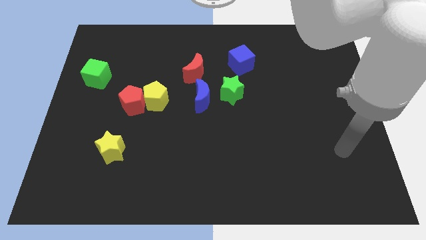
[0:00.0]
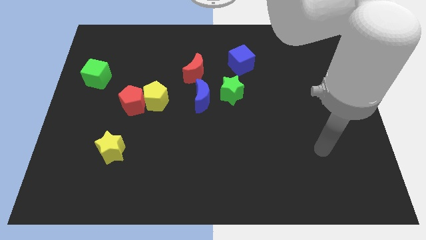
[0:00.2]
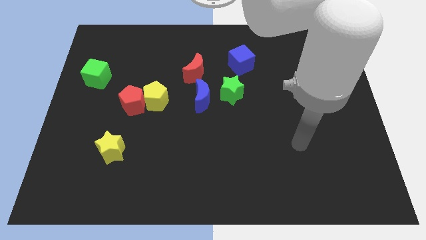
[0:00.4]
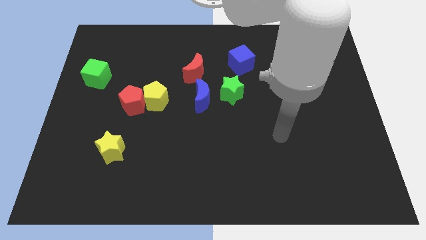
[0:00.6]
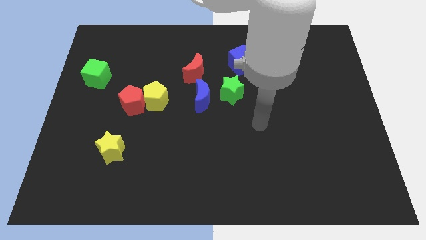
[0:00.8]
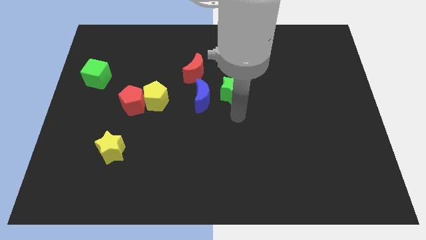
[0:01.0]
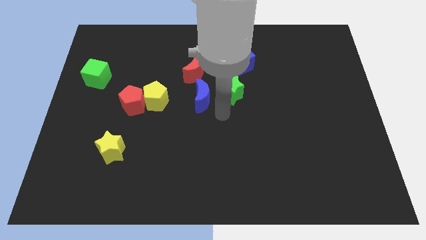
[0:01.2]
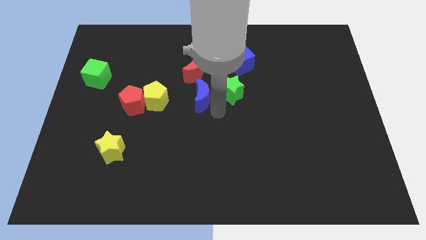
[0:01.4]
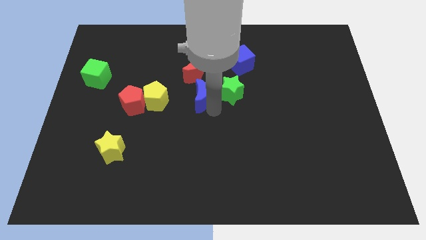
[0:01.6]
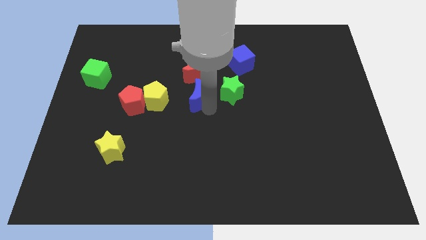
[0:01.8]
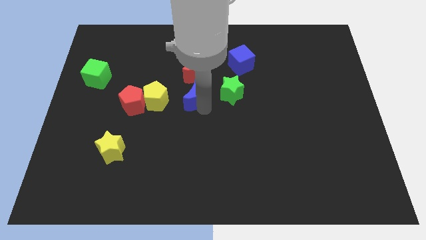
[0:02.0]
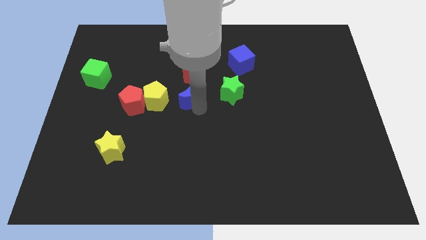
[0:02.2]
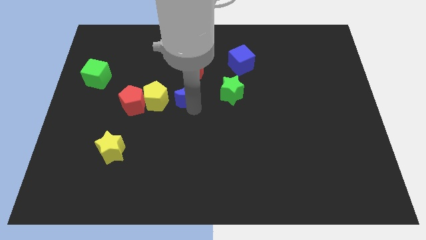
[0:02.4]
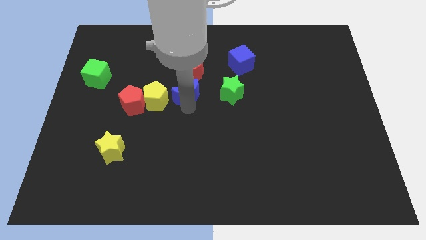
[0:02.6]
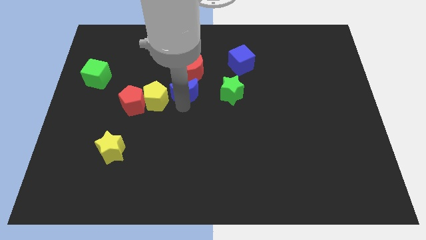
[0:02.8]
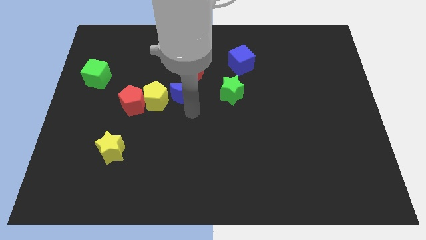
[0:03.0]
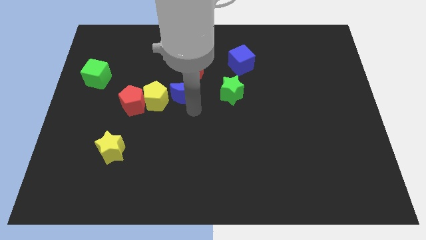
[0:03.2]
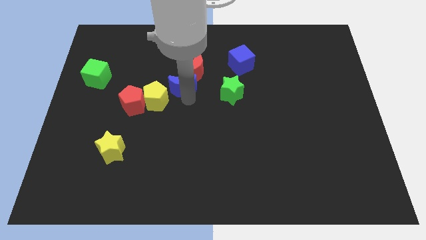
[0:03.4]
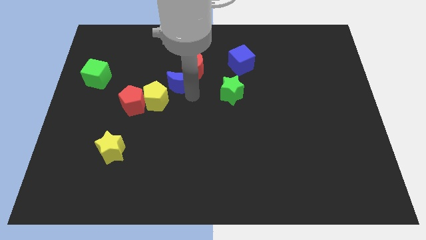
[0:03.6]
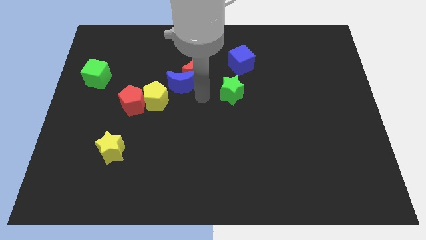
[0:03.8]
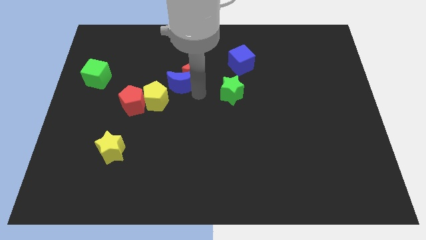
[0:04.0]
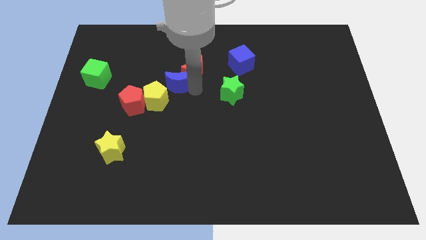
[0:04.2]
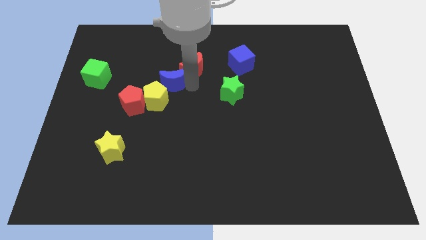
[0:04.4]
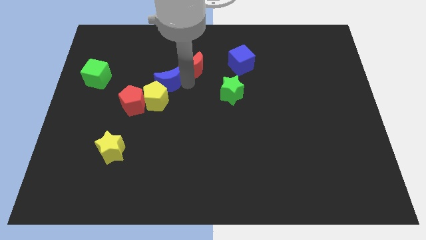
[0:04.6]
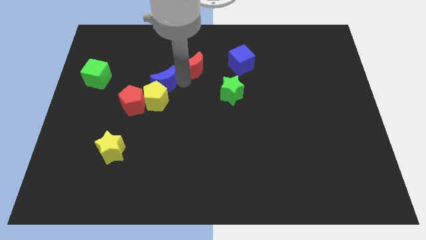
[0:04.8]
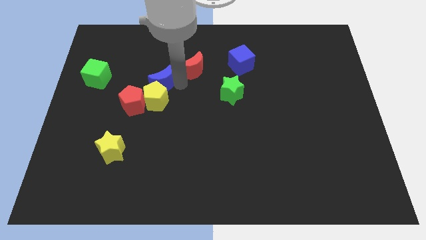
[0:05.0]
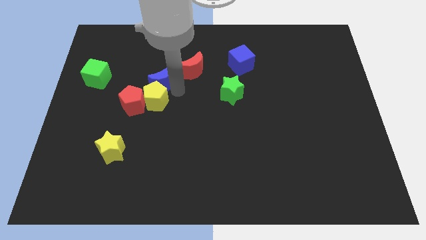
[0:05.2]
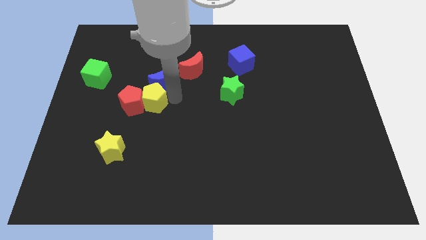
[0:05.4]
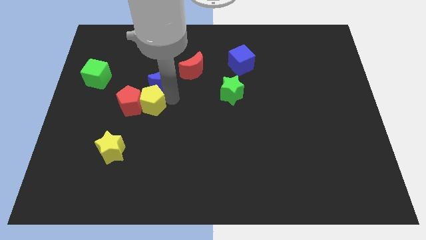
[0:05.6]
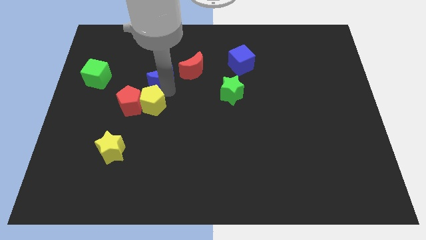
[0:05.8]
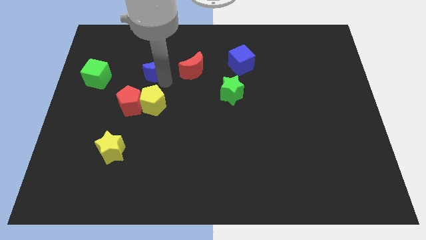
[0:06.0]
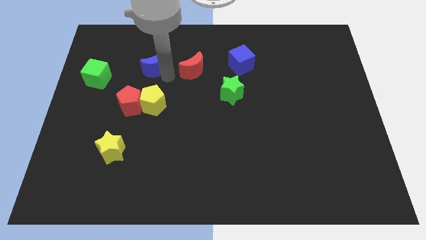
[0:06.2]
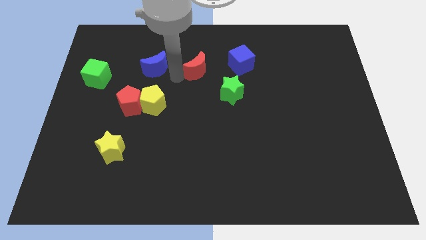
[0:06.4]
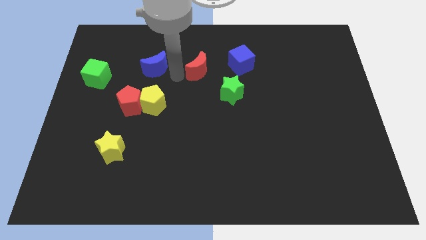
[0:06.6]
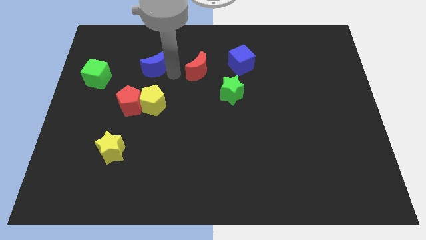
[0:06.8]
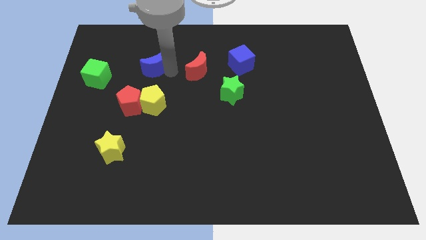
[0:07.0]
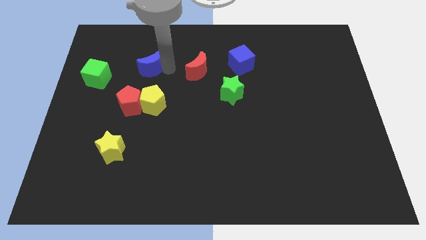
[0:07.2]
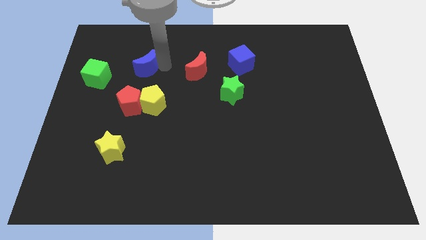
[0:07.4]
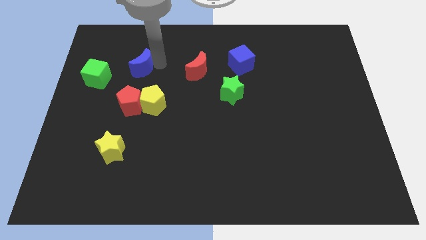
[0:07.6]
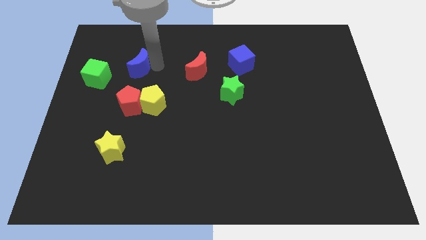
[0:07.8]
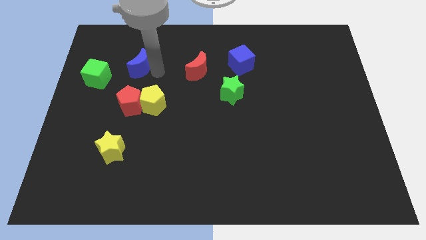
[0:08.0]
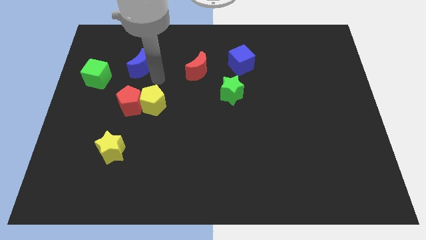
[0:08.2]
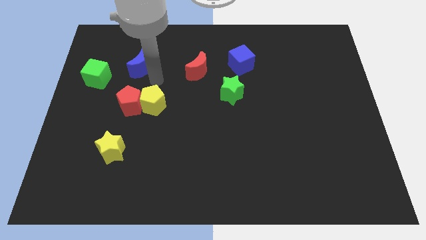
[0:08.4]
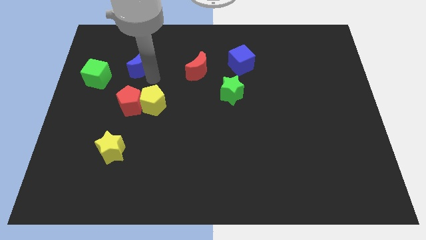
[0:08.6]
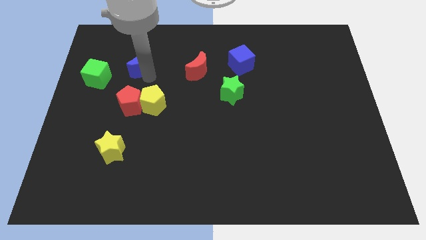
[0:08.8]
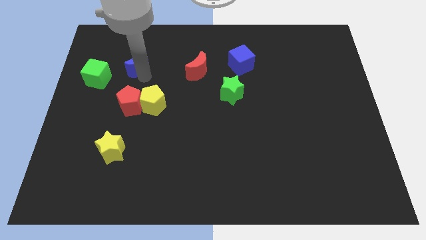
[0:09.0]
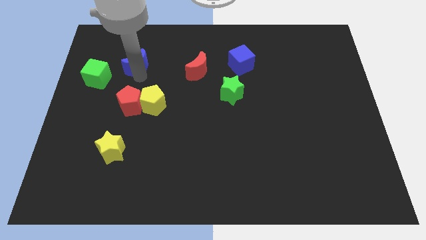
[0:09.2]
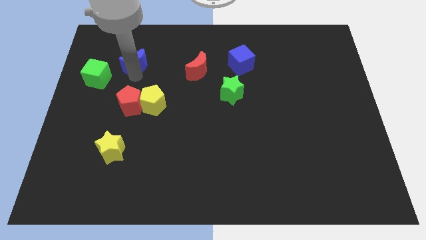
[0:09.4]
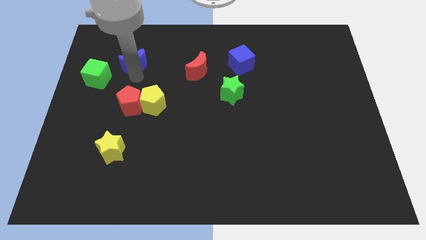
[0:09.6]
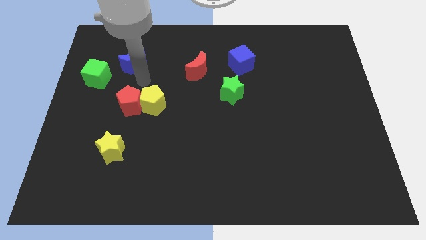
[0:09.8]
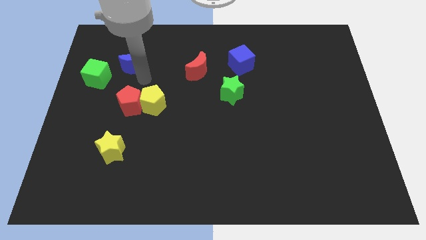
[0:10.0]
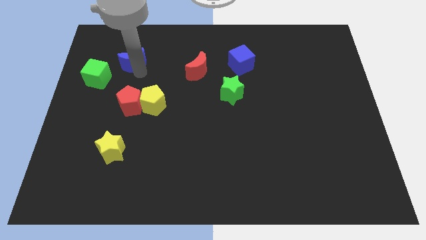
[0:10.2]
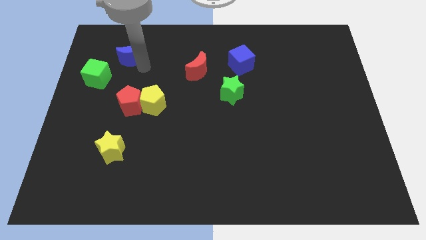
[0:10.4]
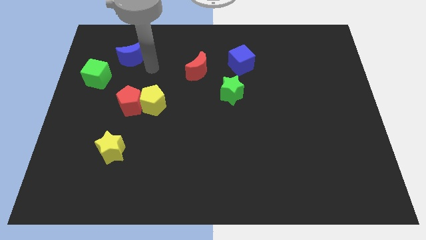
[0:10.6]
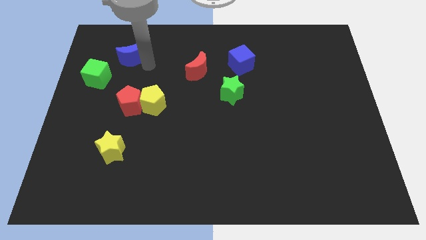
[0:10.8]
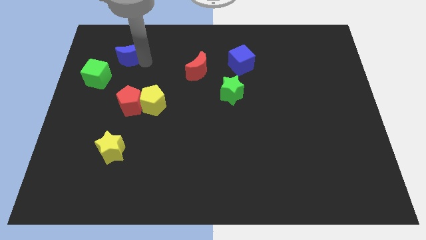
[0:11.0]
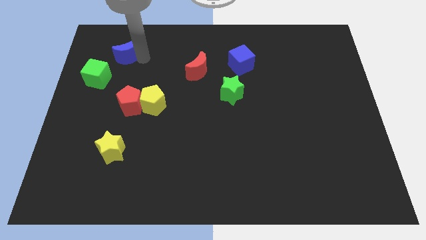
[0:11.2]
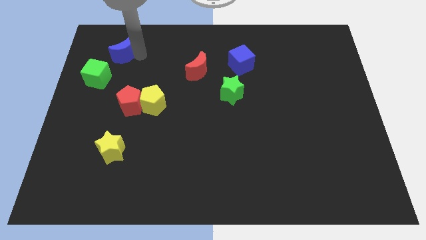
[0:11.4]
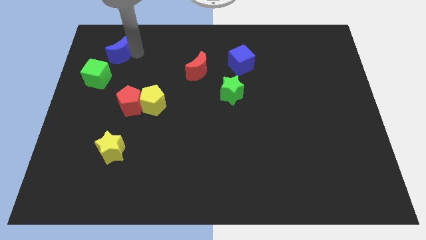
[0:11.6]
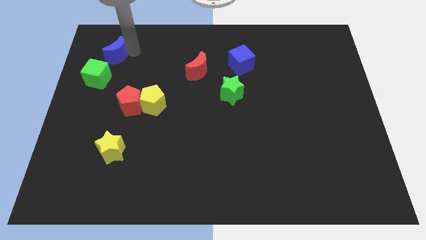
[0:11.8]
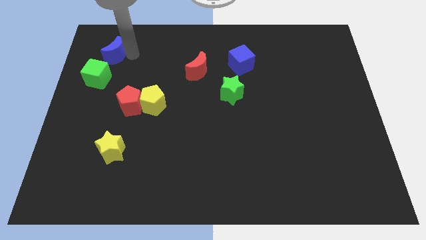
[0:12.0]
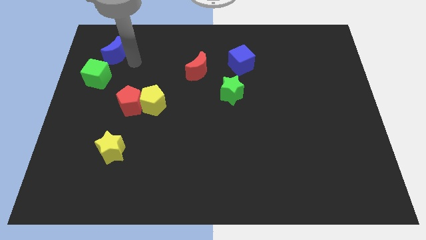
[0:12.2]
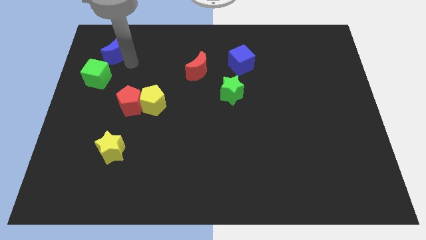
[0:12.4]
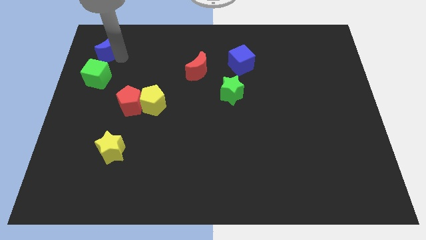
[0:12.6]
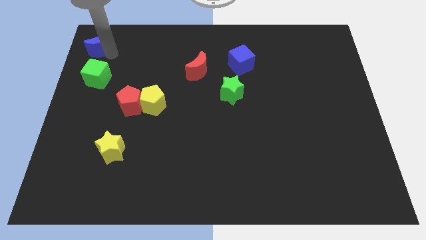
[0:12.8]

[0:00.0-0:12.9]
slide the blue moon to the top left of the board
